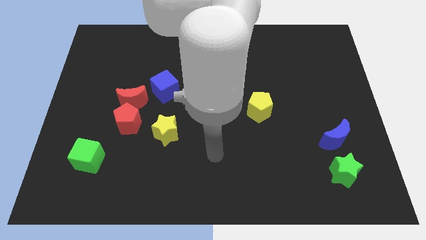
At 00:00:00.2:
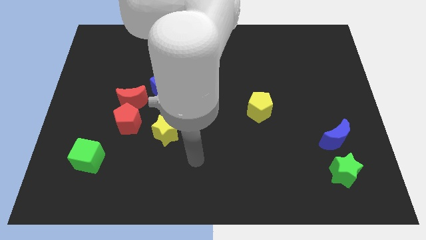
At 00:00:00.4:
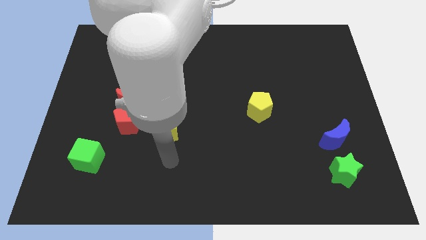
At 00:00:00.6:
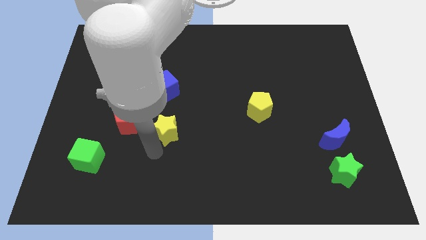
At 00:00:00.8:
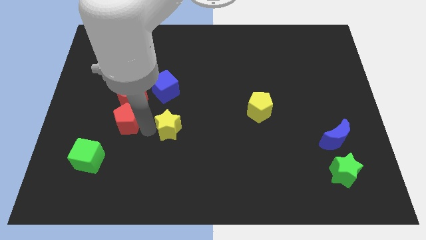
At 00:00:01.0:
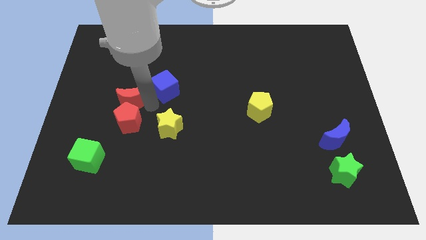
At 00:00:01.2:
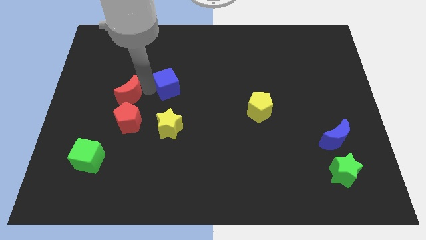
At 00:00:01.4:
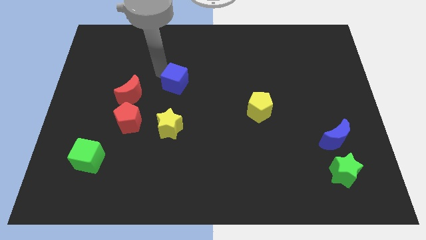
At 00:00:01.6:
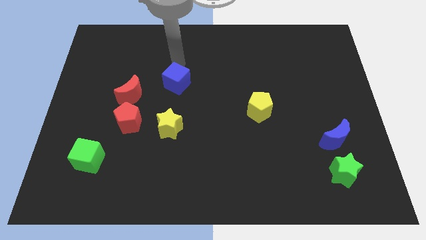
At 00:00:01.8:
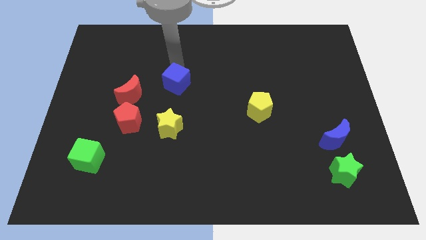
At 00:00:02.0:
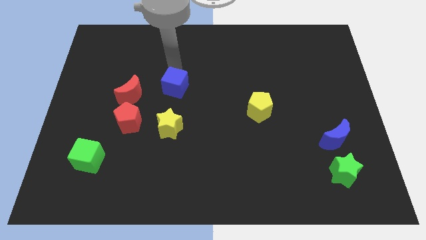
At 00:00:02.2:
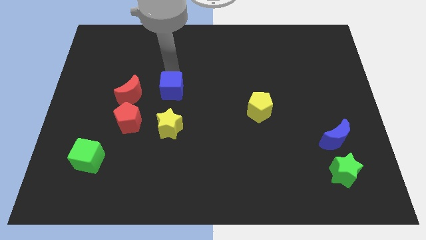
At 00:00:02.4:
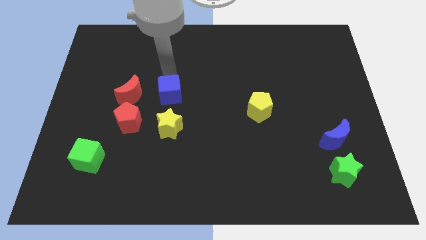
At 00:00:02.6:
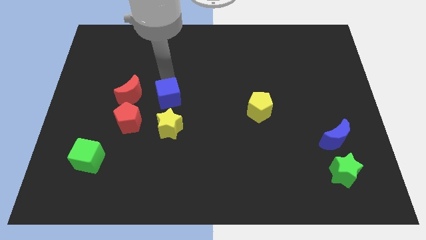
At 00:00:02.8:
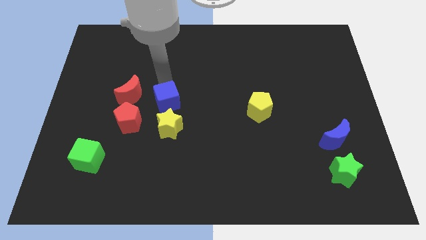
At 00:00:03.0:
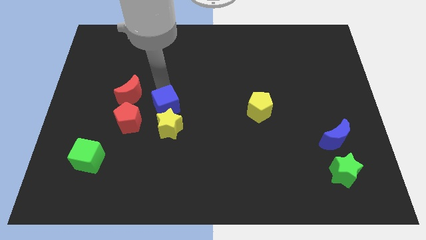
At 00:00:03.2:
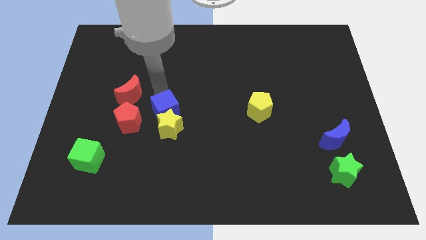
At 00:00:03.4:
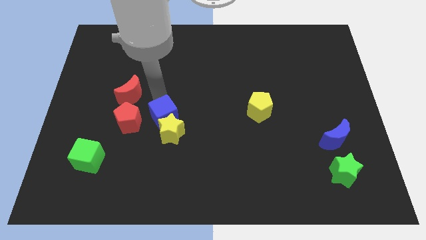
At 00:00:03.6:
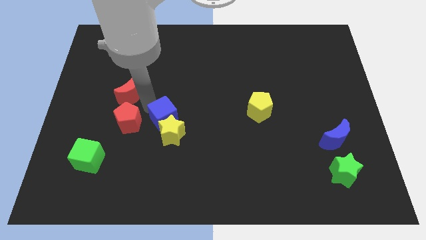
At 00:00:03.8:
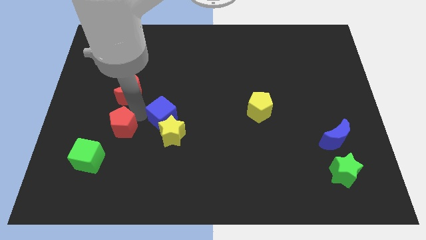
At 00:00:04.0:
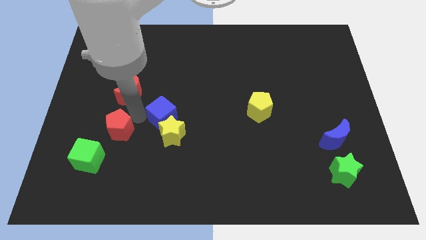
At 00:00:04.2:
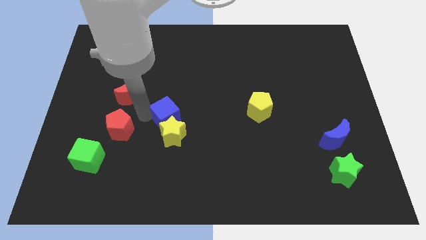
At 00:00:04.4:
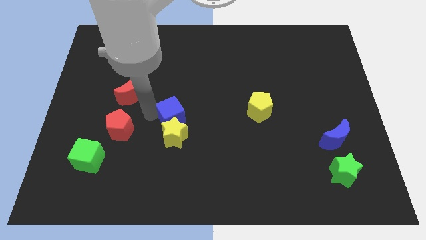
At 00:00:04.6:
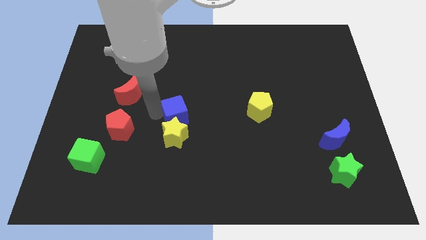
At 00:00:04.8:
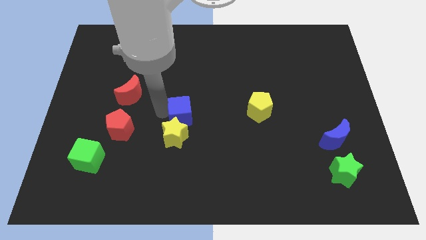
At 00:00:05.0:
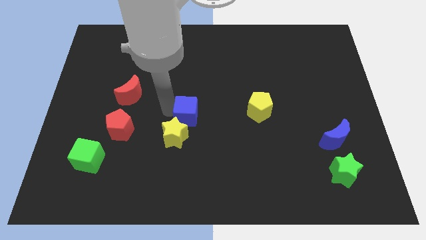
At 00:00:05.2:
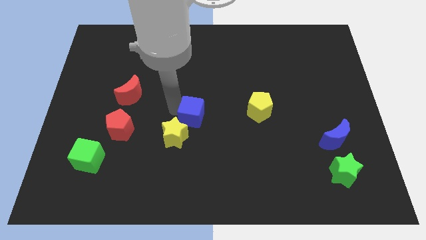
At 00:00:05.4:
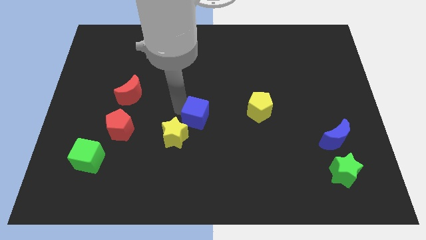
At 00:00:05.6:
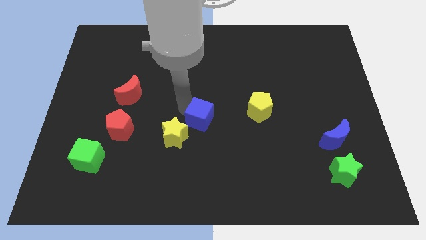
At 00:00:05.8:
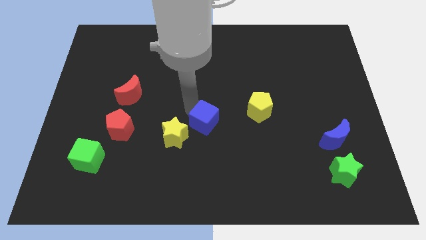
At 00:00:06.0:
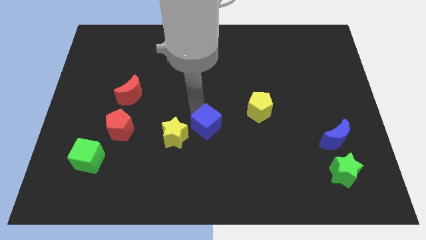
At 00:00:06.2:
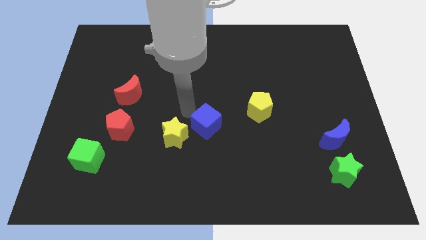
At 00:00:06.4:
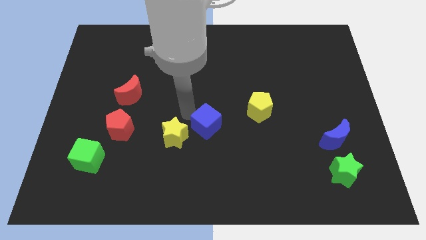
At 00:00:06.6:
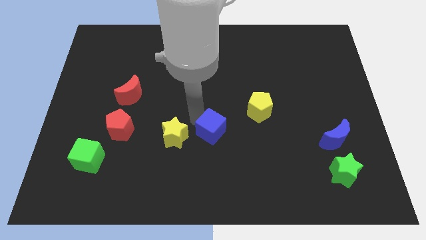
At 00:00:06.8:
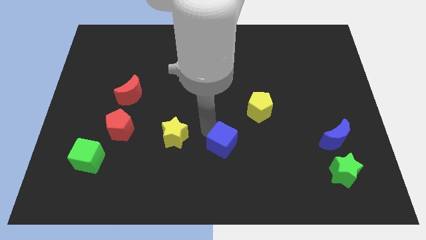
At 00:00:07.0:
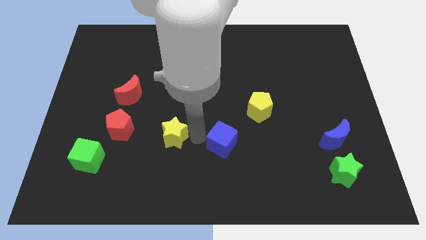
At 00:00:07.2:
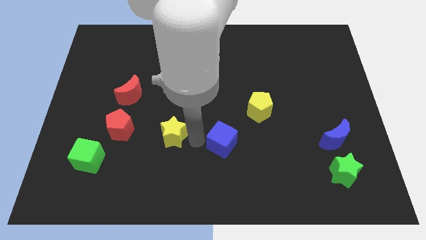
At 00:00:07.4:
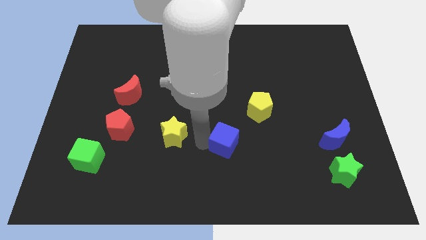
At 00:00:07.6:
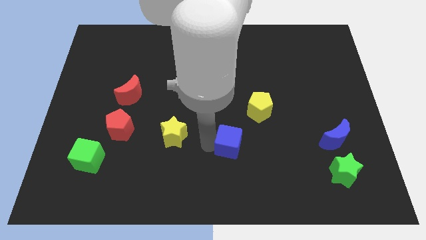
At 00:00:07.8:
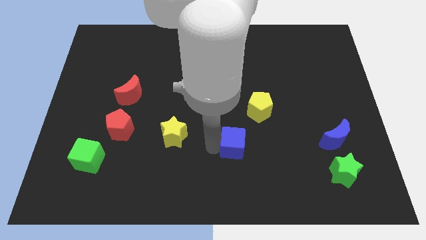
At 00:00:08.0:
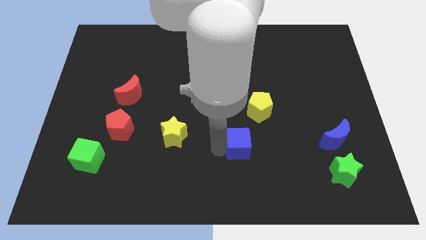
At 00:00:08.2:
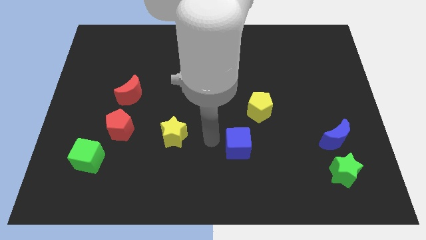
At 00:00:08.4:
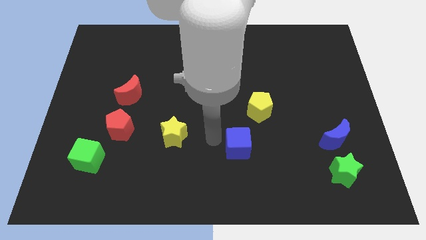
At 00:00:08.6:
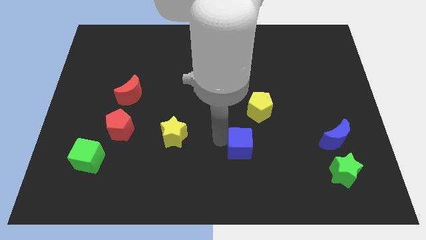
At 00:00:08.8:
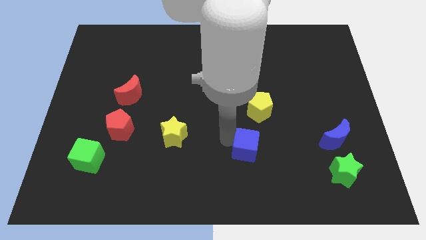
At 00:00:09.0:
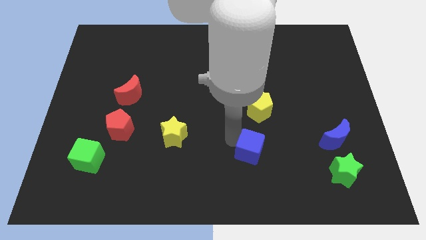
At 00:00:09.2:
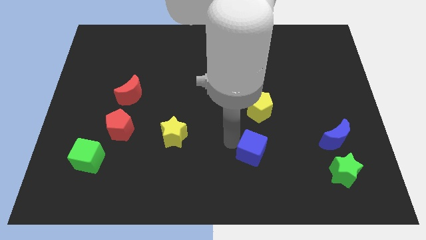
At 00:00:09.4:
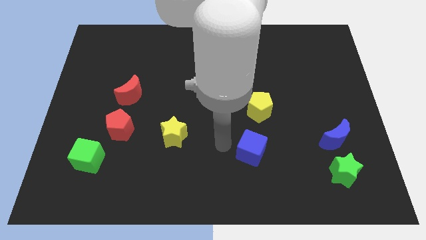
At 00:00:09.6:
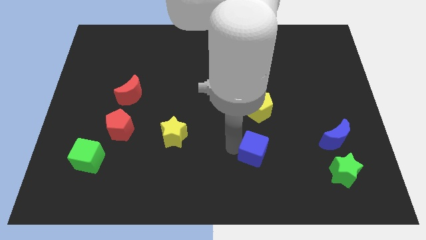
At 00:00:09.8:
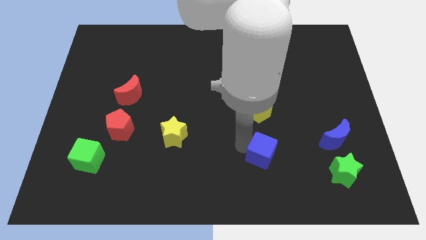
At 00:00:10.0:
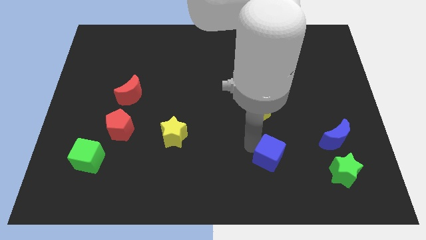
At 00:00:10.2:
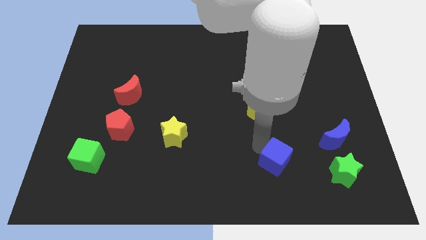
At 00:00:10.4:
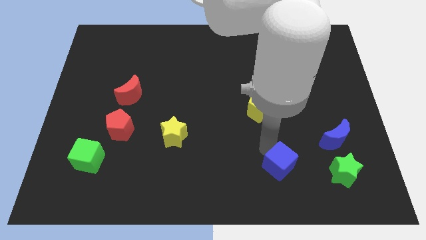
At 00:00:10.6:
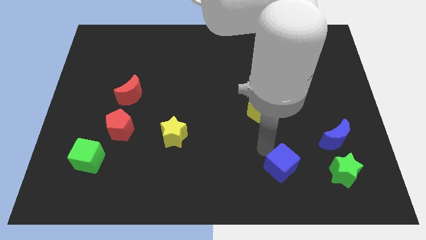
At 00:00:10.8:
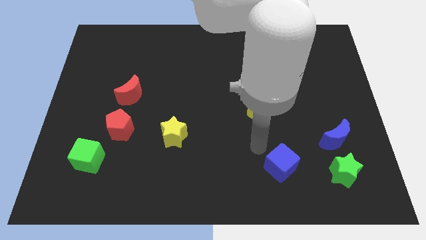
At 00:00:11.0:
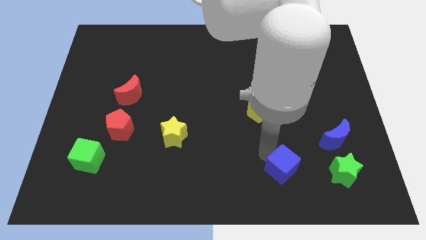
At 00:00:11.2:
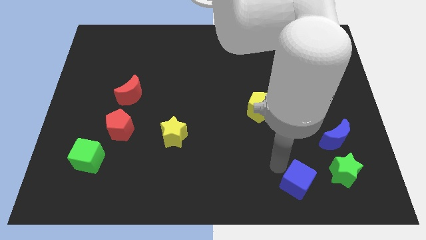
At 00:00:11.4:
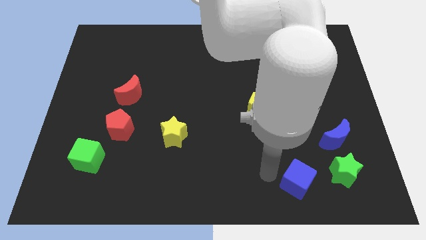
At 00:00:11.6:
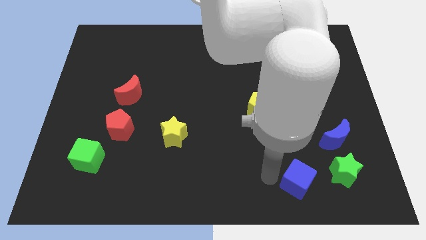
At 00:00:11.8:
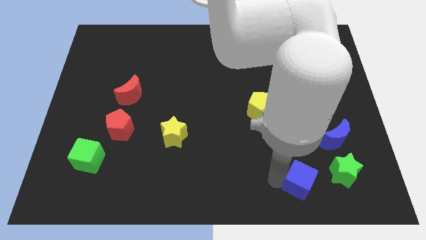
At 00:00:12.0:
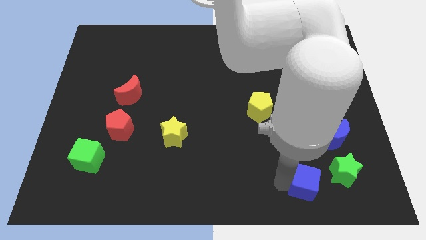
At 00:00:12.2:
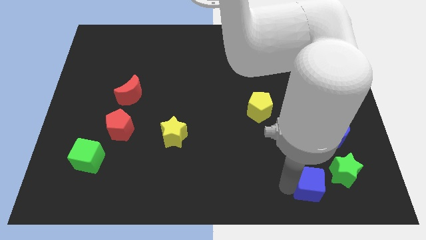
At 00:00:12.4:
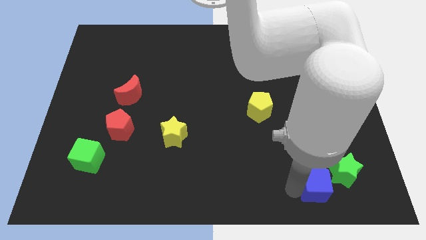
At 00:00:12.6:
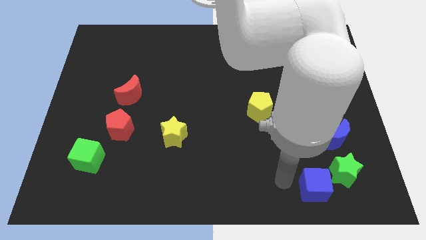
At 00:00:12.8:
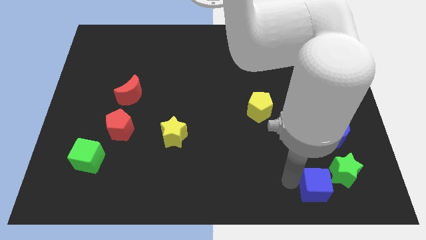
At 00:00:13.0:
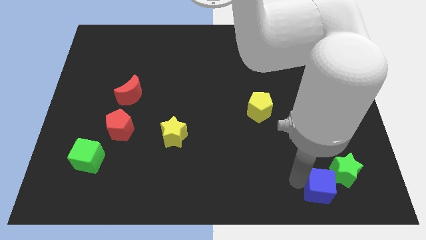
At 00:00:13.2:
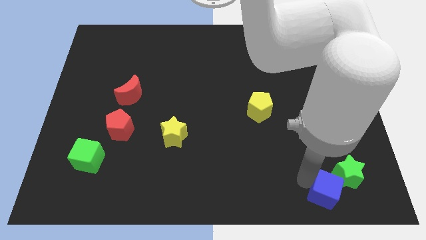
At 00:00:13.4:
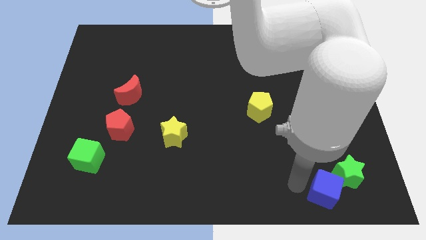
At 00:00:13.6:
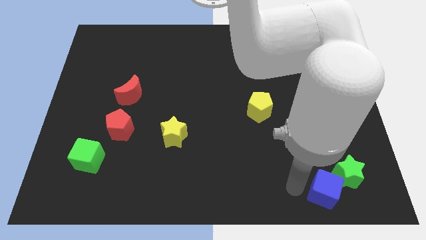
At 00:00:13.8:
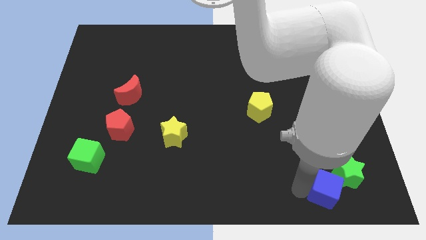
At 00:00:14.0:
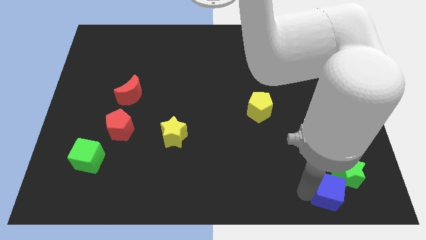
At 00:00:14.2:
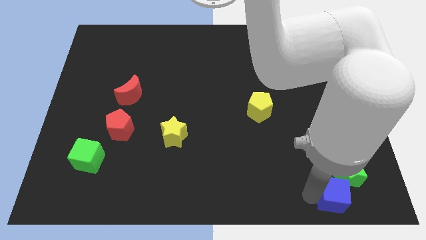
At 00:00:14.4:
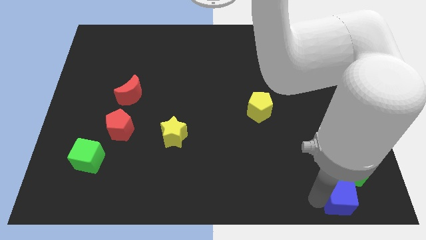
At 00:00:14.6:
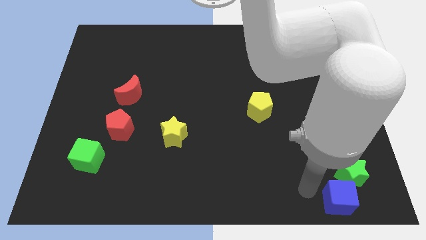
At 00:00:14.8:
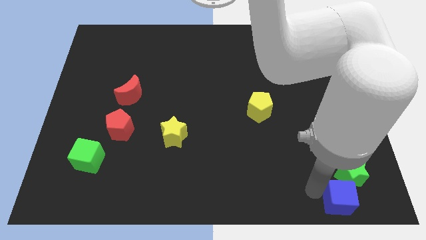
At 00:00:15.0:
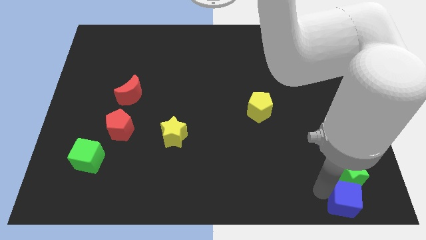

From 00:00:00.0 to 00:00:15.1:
slide the blue cube to the bottom right
